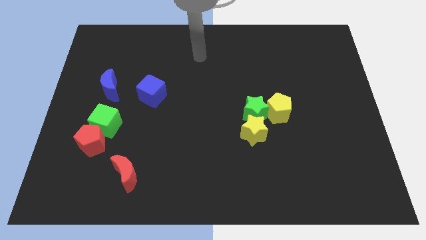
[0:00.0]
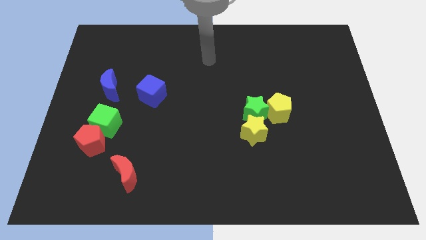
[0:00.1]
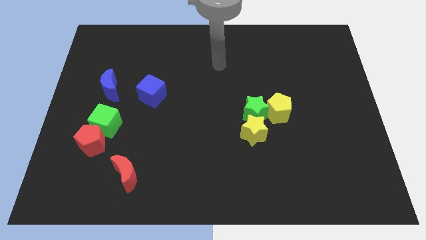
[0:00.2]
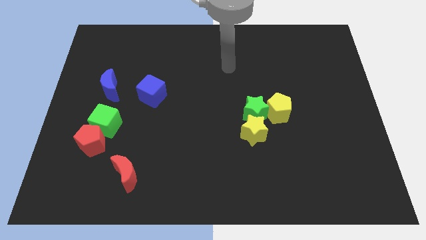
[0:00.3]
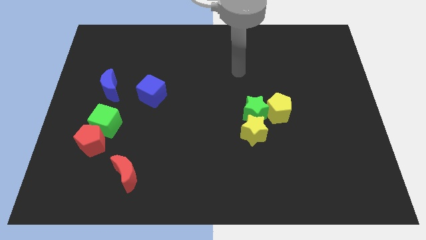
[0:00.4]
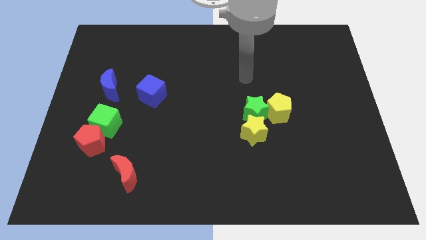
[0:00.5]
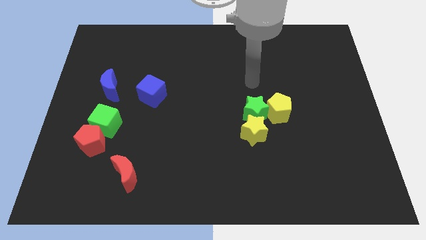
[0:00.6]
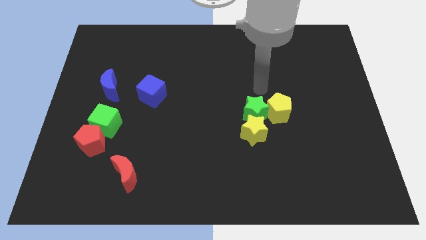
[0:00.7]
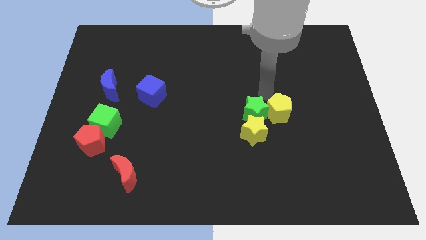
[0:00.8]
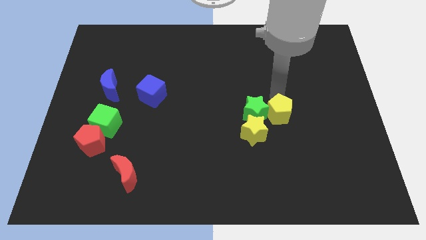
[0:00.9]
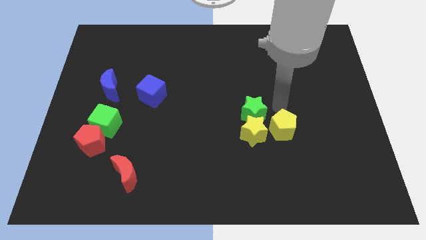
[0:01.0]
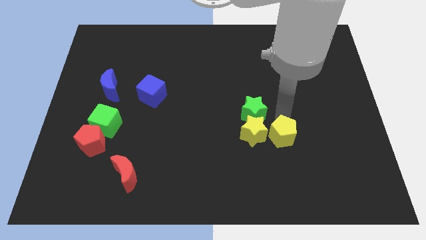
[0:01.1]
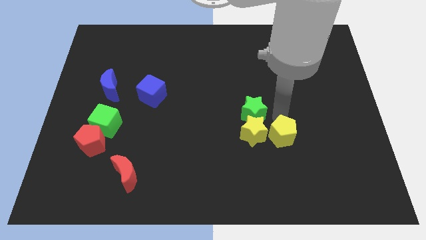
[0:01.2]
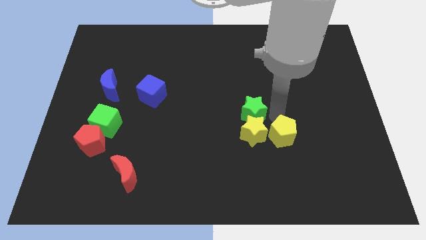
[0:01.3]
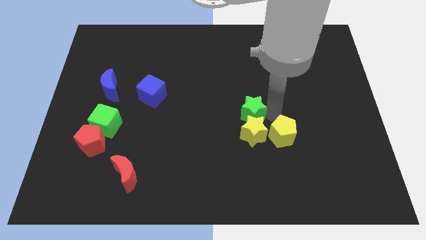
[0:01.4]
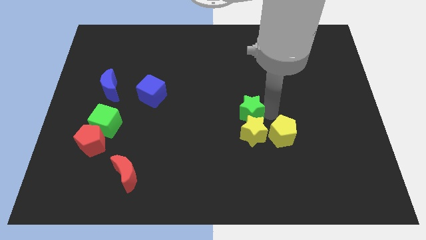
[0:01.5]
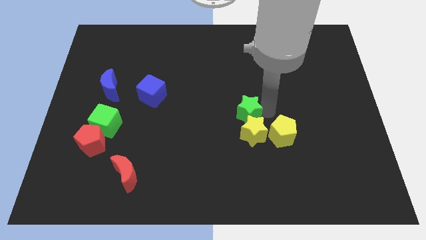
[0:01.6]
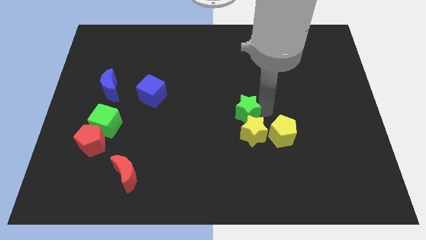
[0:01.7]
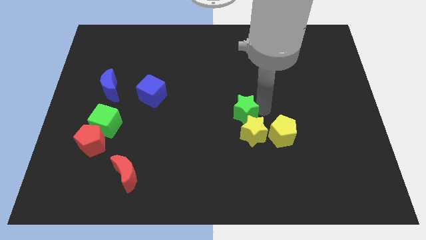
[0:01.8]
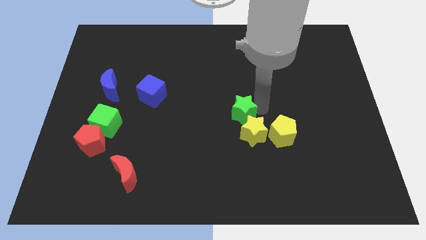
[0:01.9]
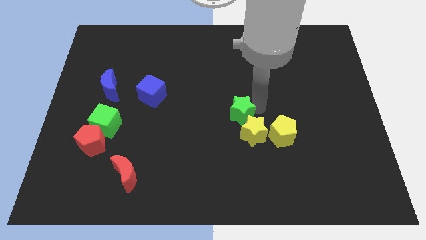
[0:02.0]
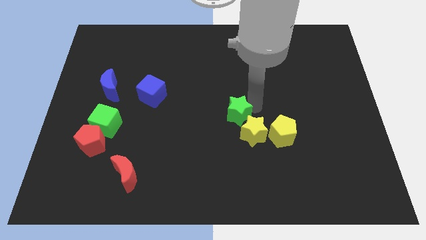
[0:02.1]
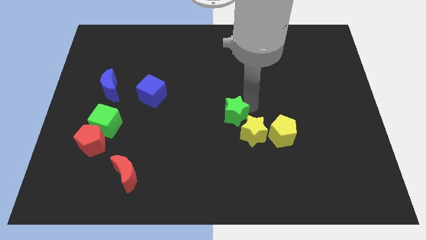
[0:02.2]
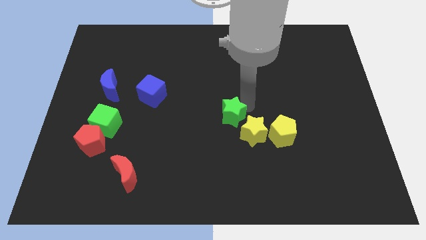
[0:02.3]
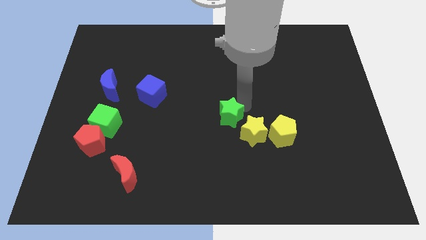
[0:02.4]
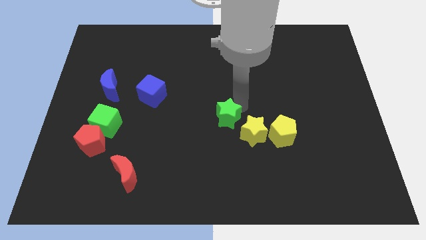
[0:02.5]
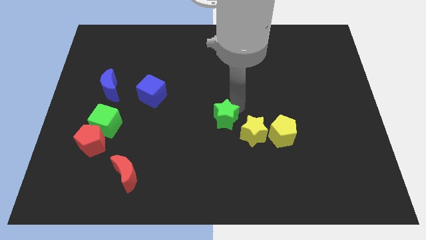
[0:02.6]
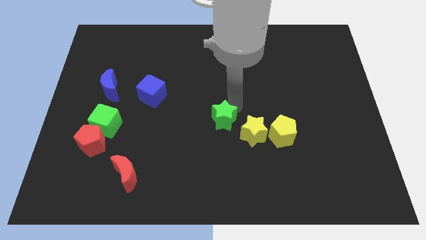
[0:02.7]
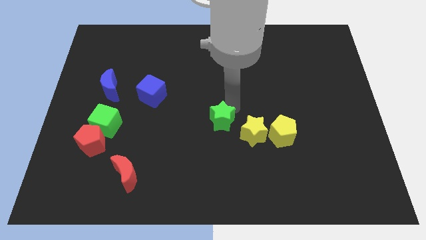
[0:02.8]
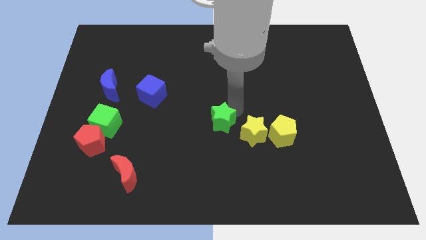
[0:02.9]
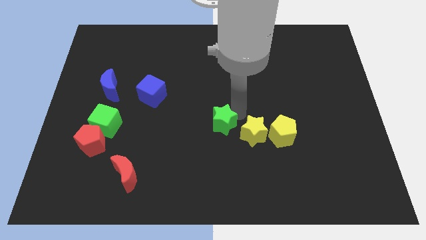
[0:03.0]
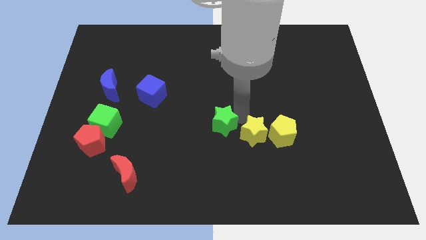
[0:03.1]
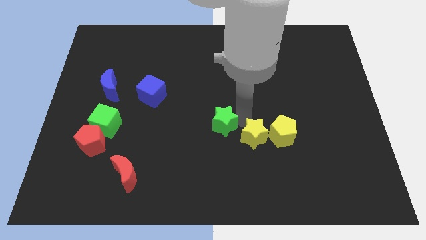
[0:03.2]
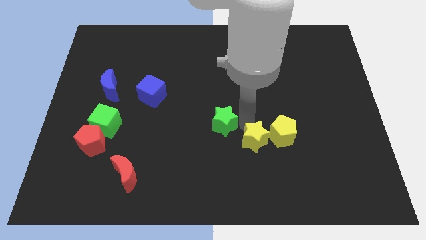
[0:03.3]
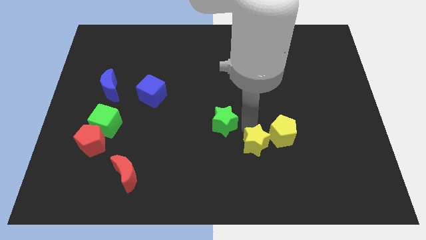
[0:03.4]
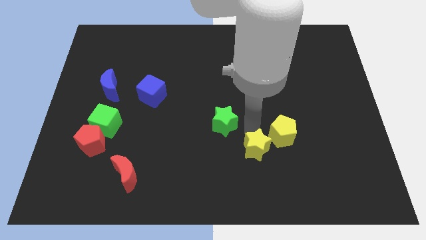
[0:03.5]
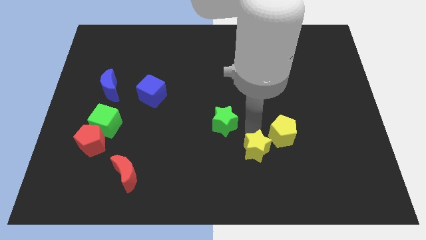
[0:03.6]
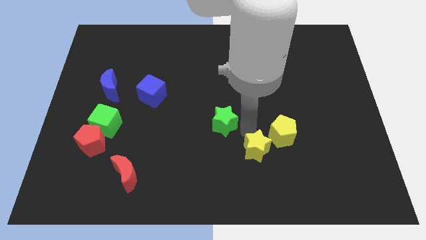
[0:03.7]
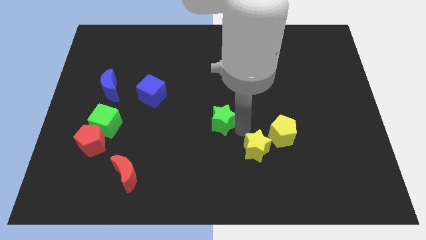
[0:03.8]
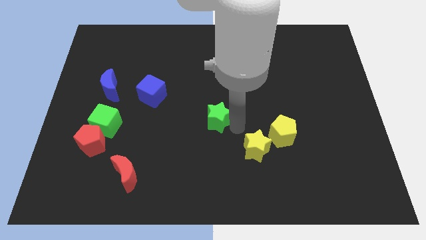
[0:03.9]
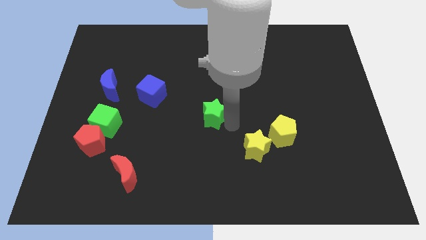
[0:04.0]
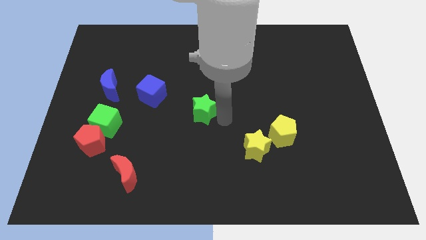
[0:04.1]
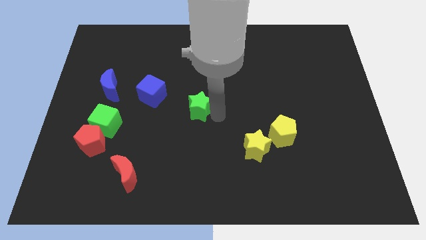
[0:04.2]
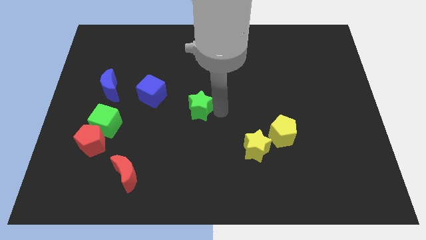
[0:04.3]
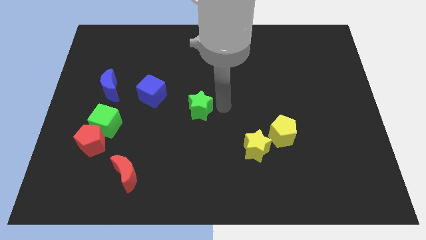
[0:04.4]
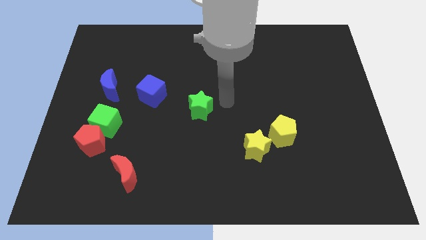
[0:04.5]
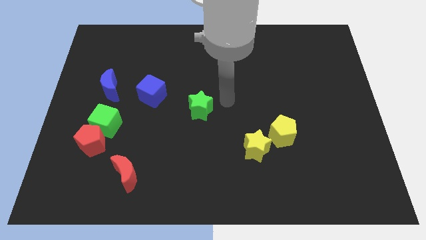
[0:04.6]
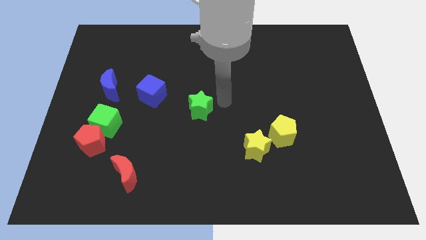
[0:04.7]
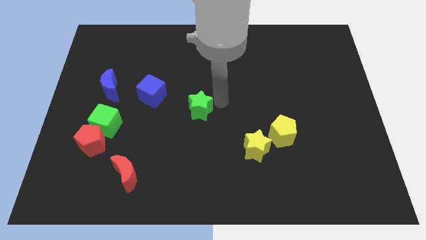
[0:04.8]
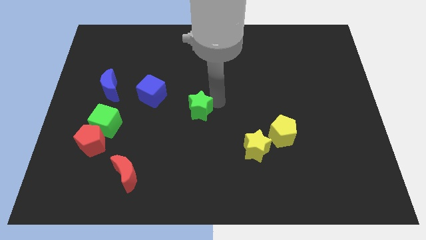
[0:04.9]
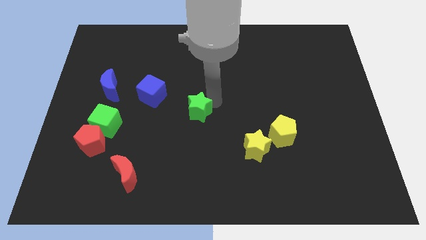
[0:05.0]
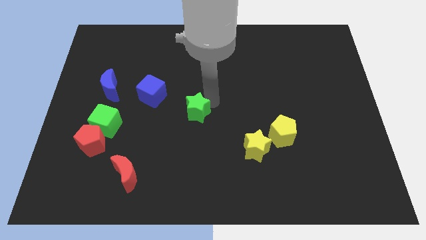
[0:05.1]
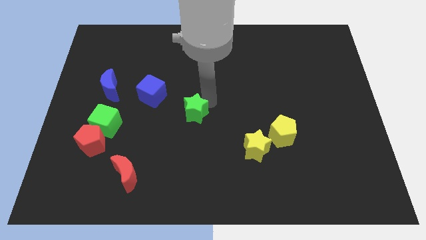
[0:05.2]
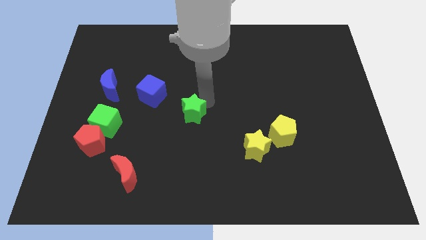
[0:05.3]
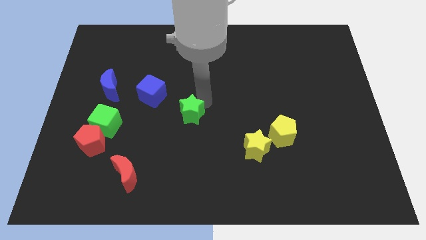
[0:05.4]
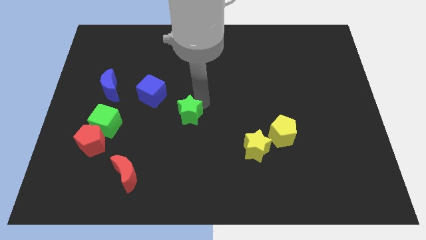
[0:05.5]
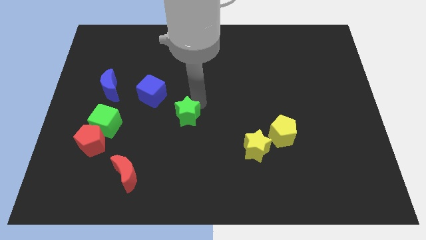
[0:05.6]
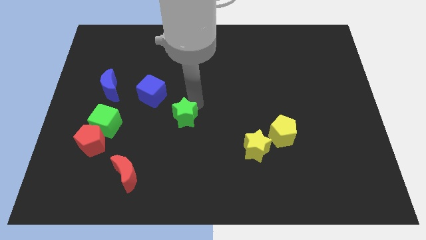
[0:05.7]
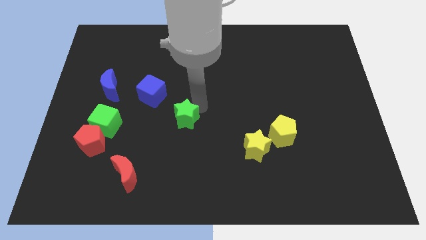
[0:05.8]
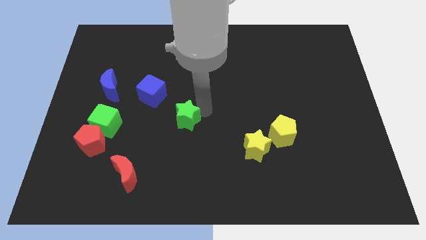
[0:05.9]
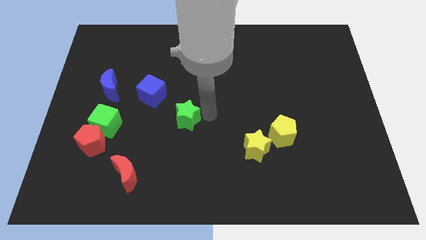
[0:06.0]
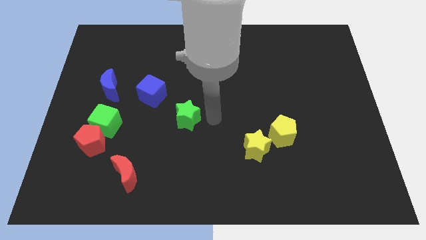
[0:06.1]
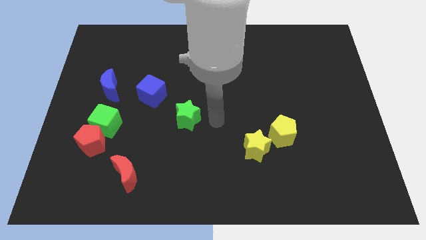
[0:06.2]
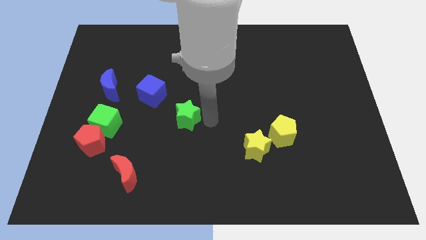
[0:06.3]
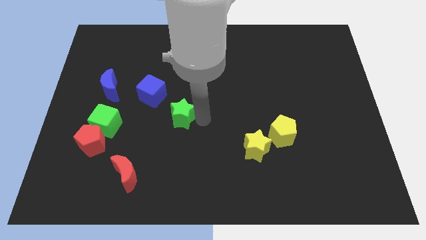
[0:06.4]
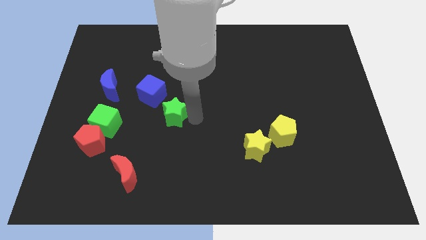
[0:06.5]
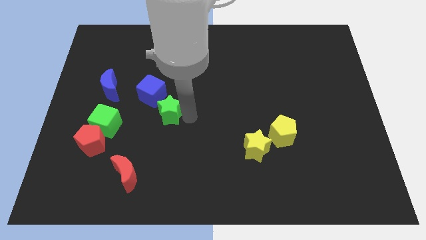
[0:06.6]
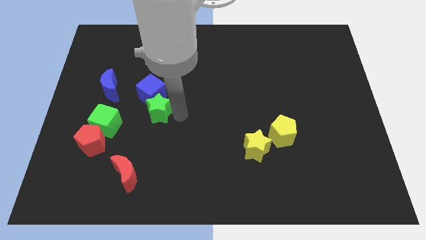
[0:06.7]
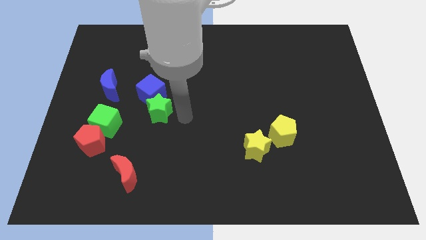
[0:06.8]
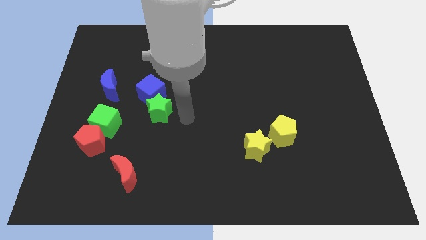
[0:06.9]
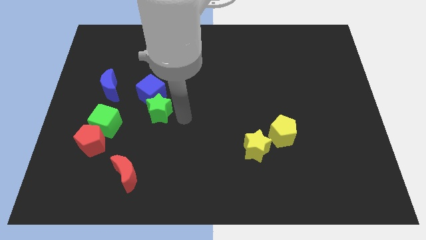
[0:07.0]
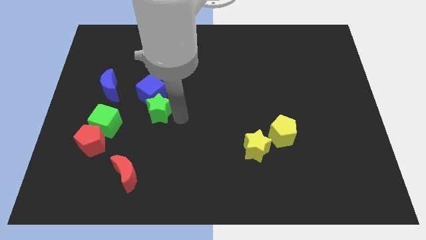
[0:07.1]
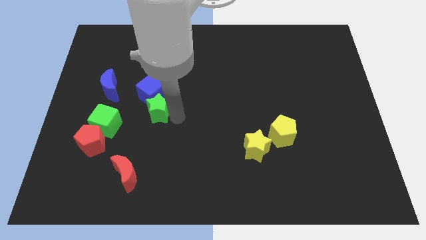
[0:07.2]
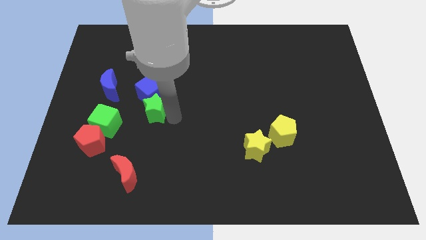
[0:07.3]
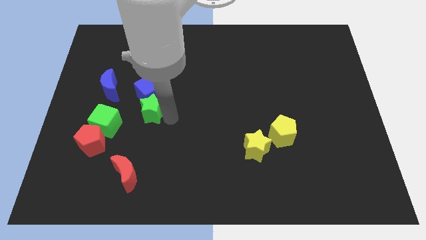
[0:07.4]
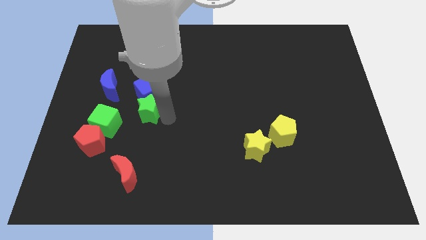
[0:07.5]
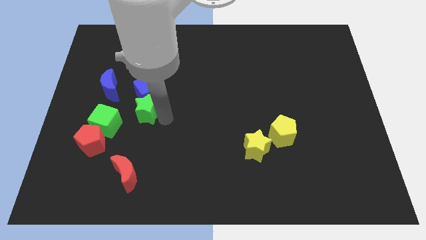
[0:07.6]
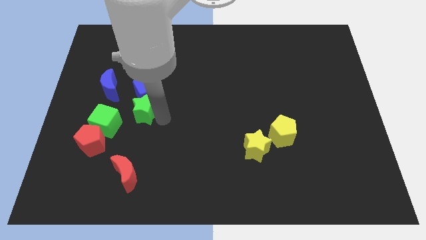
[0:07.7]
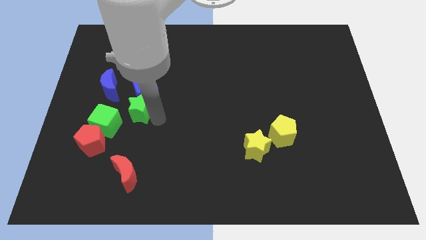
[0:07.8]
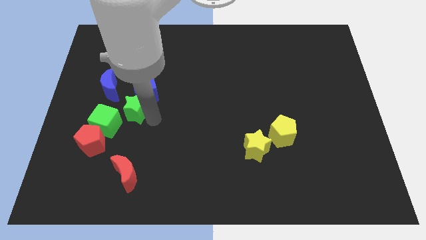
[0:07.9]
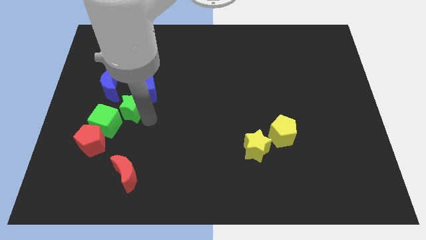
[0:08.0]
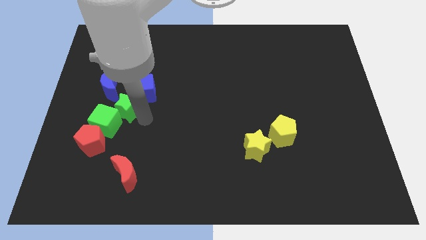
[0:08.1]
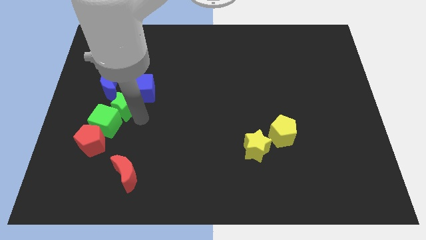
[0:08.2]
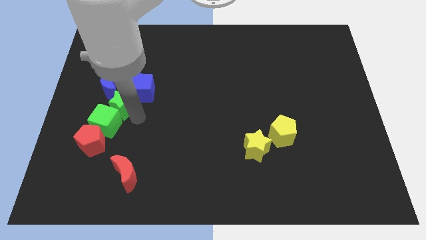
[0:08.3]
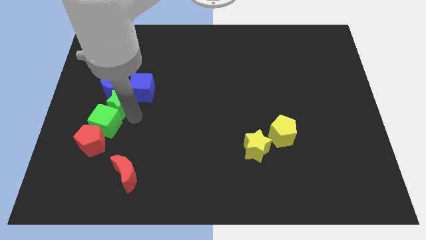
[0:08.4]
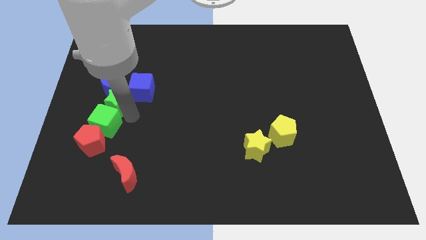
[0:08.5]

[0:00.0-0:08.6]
move the green star close to the blue moon
